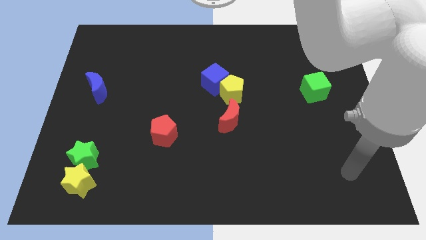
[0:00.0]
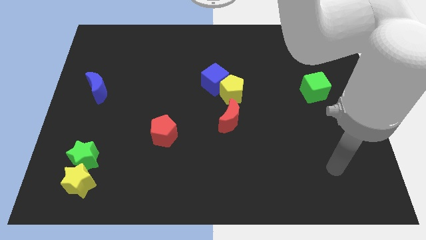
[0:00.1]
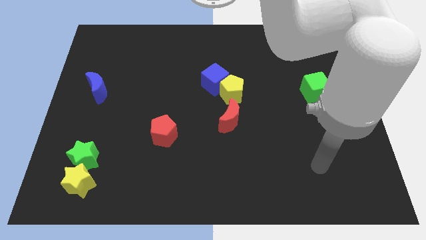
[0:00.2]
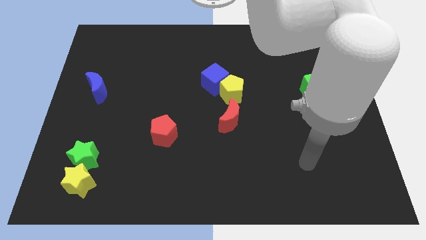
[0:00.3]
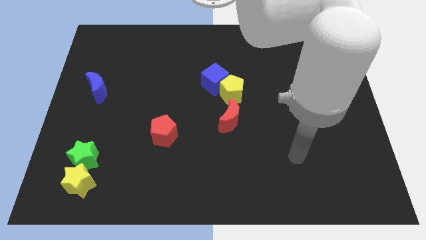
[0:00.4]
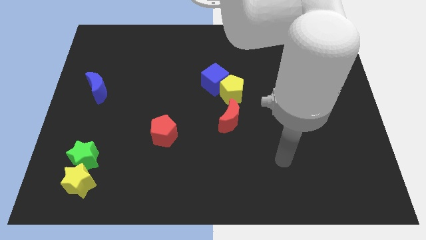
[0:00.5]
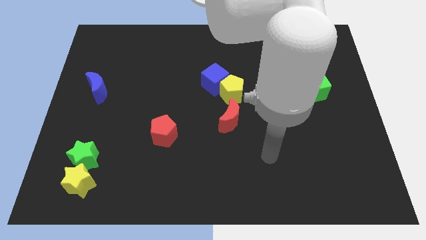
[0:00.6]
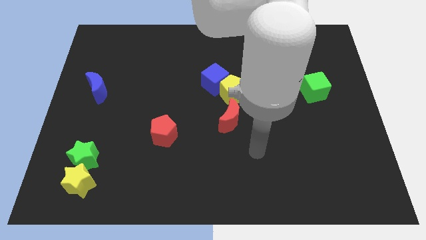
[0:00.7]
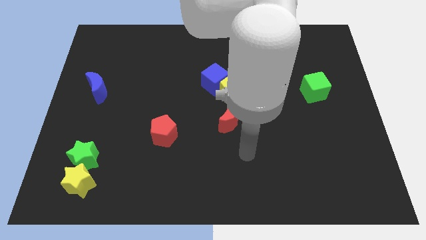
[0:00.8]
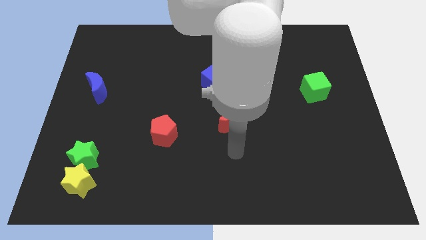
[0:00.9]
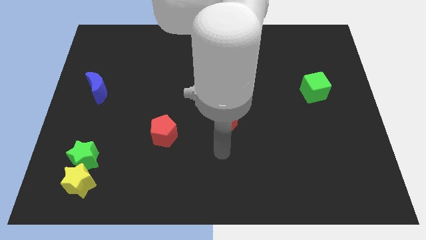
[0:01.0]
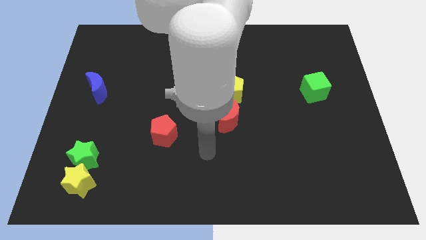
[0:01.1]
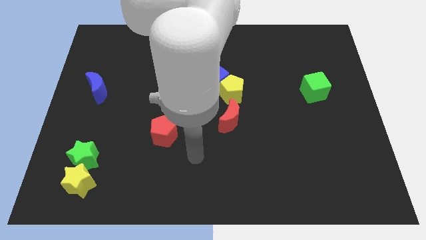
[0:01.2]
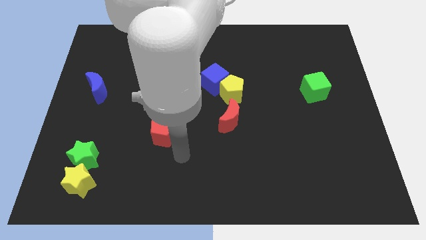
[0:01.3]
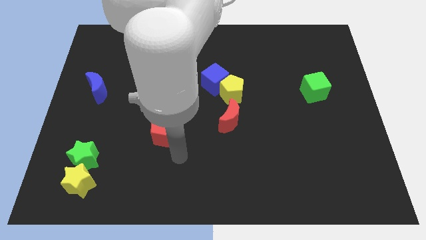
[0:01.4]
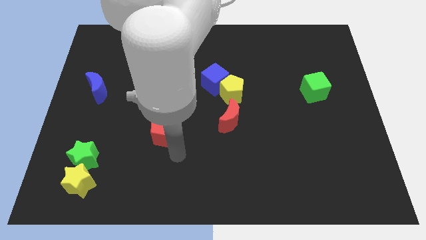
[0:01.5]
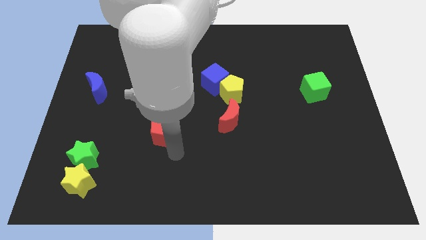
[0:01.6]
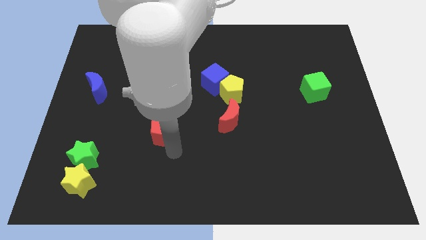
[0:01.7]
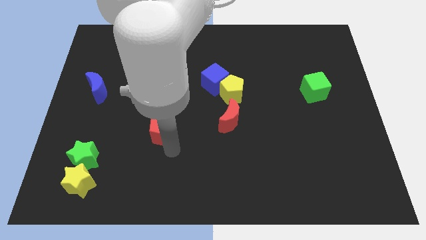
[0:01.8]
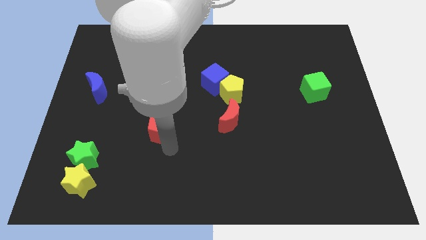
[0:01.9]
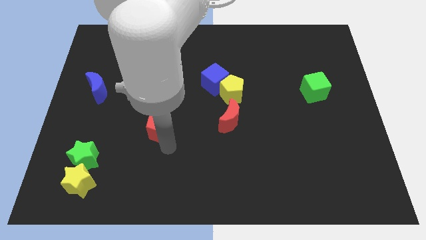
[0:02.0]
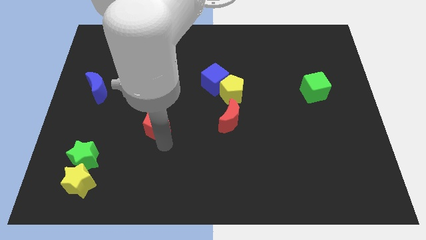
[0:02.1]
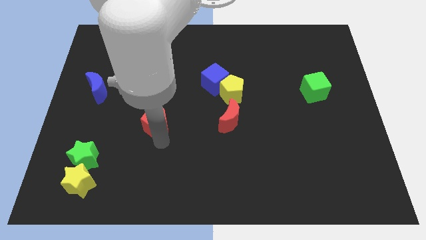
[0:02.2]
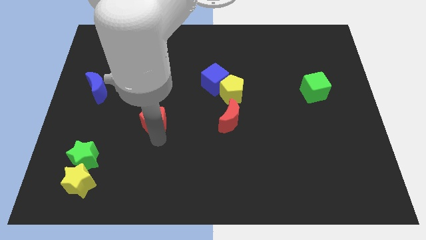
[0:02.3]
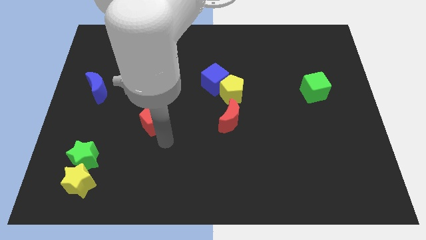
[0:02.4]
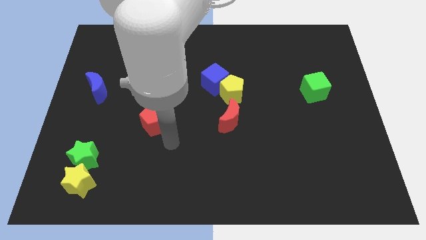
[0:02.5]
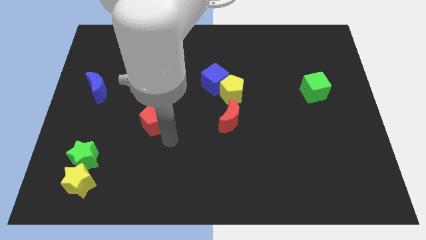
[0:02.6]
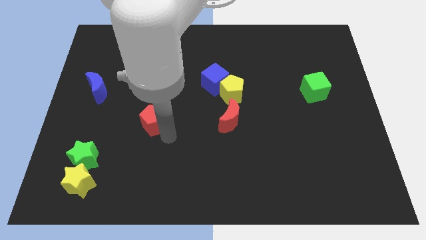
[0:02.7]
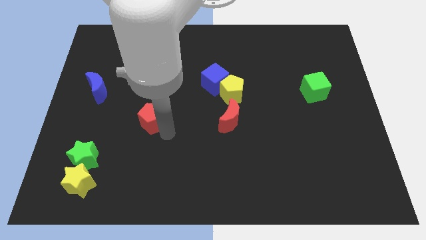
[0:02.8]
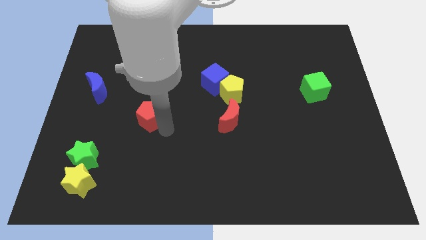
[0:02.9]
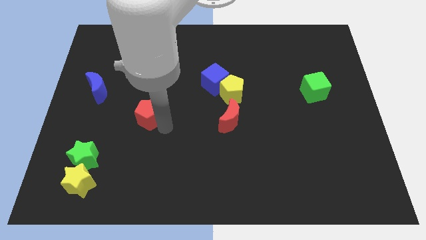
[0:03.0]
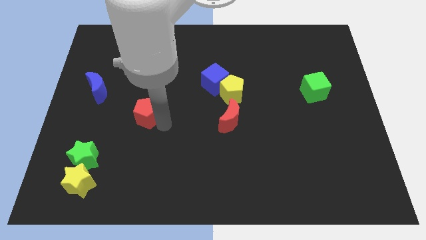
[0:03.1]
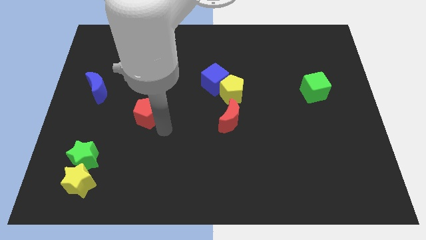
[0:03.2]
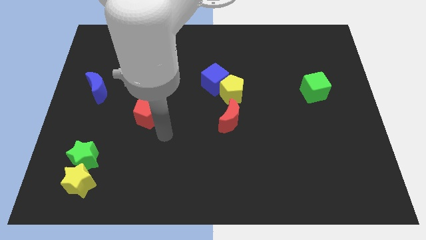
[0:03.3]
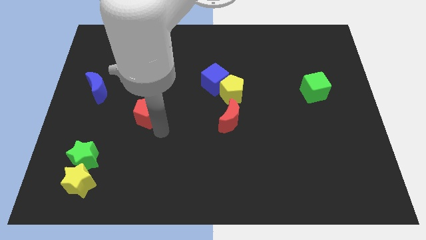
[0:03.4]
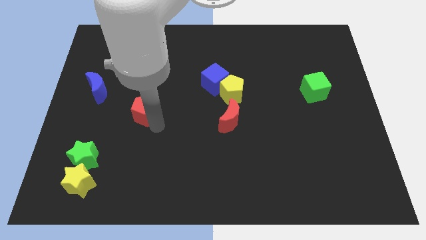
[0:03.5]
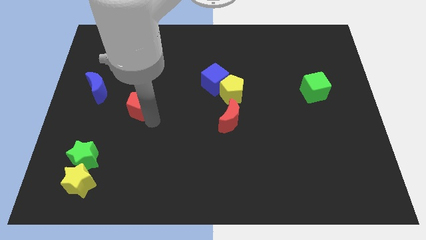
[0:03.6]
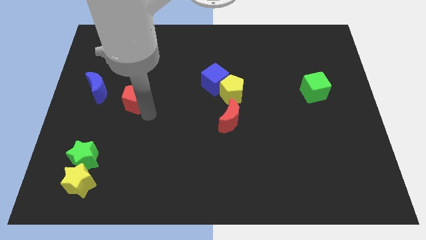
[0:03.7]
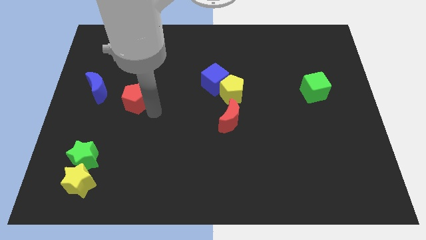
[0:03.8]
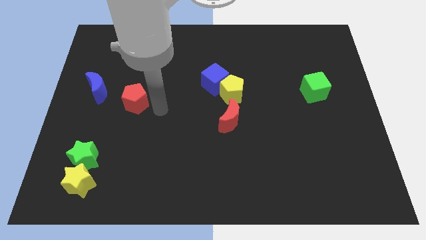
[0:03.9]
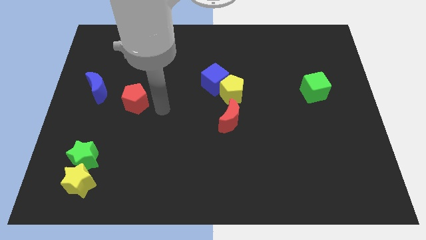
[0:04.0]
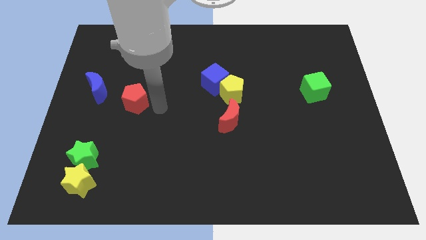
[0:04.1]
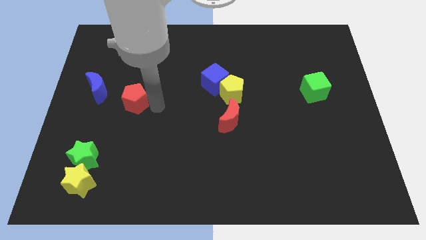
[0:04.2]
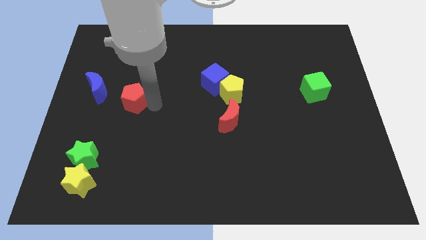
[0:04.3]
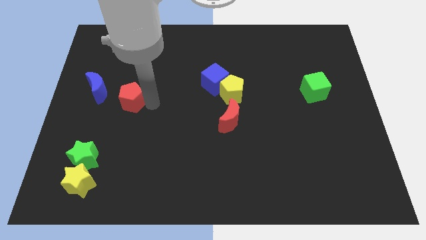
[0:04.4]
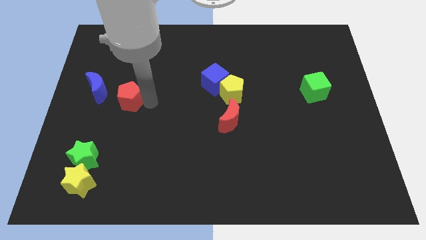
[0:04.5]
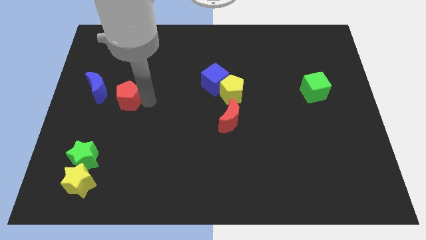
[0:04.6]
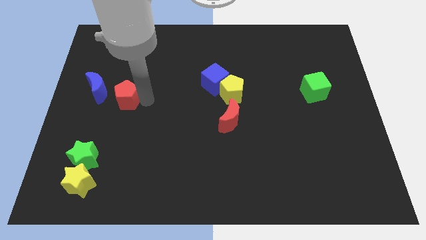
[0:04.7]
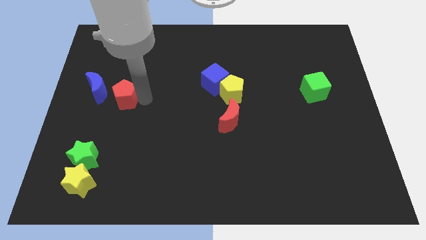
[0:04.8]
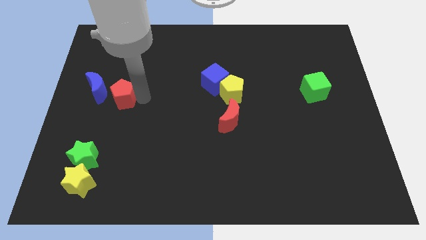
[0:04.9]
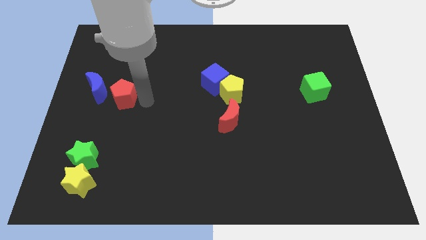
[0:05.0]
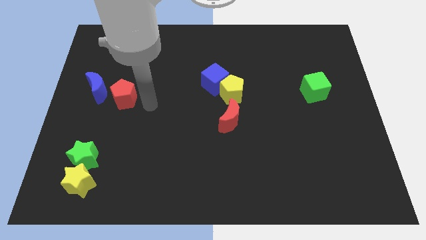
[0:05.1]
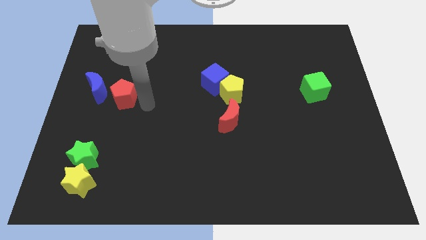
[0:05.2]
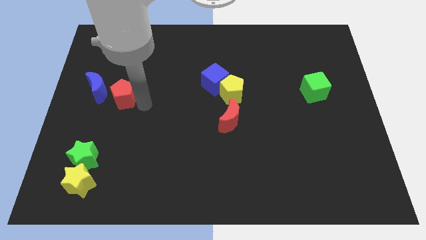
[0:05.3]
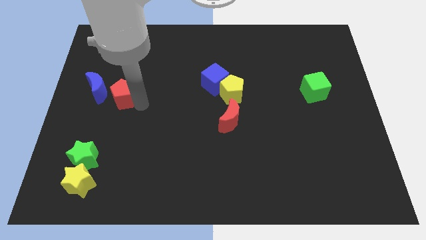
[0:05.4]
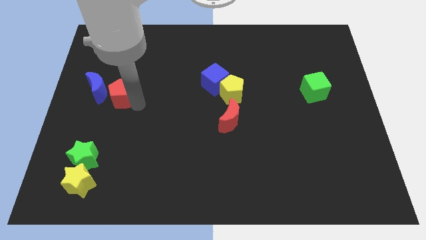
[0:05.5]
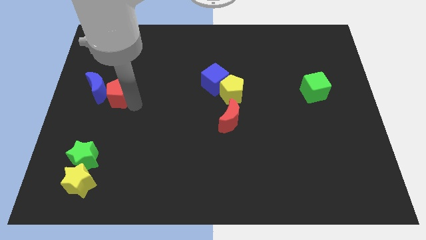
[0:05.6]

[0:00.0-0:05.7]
move the red pentagon towards the blue moon

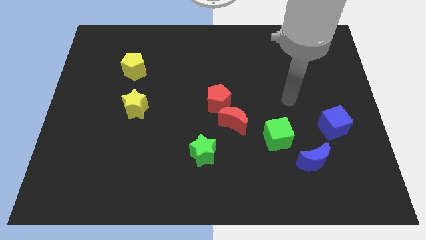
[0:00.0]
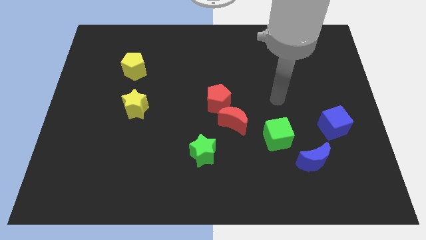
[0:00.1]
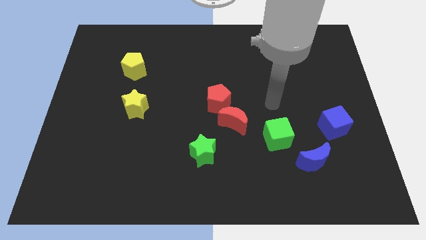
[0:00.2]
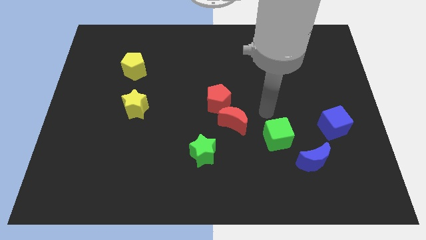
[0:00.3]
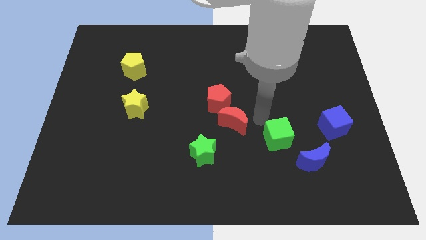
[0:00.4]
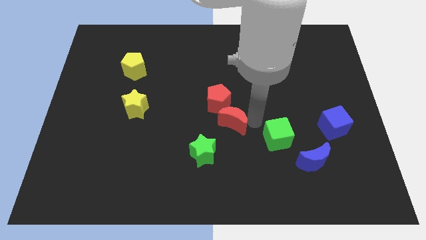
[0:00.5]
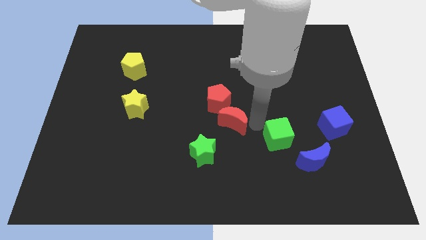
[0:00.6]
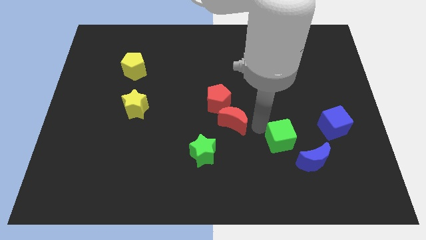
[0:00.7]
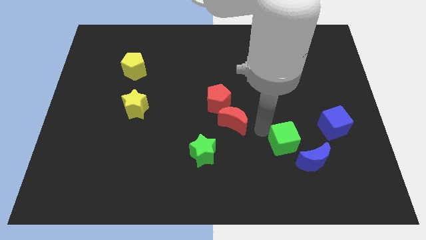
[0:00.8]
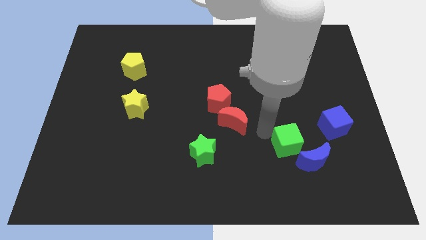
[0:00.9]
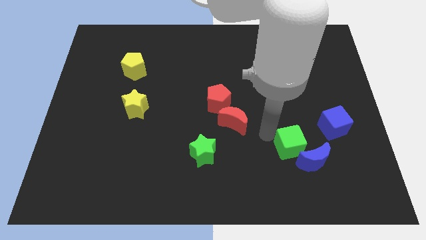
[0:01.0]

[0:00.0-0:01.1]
put the green cube close to the blue moon
